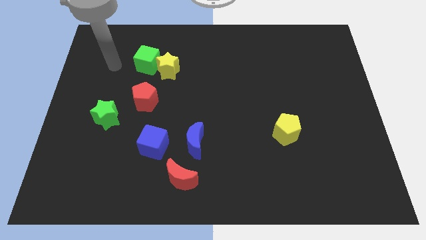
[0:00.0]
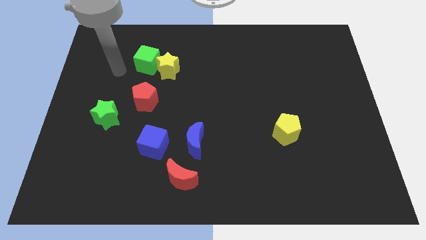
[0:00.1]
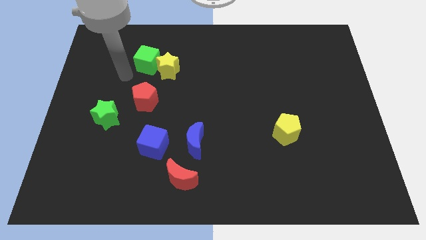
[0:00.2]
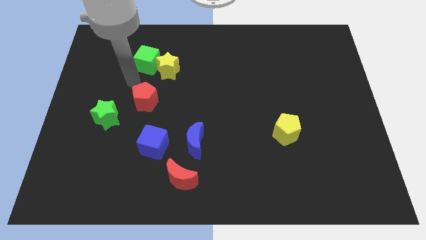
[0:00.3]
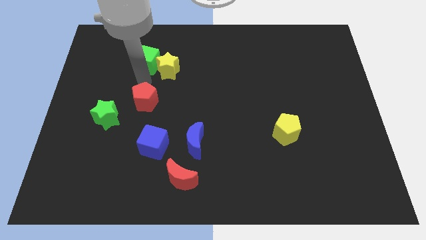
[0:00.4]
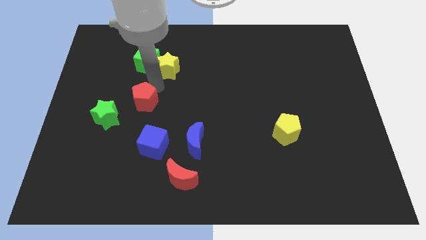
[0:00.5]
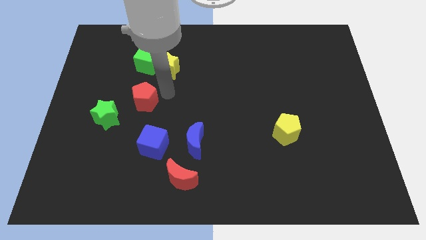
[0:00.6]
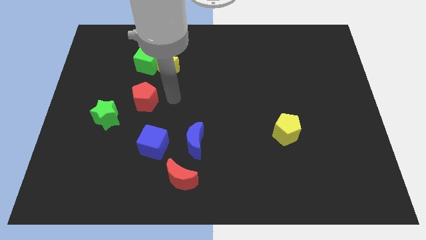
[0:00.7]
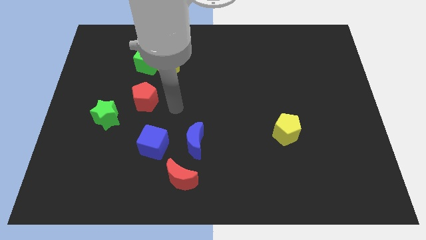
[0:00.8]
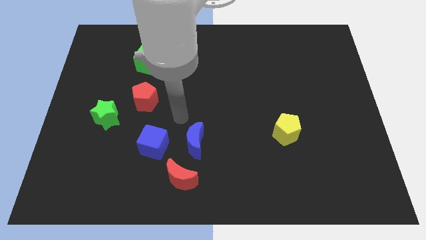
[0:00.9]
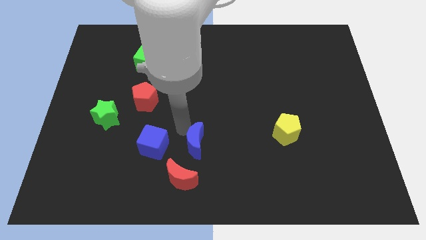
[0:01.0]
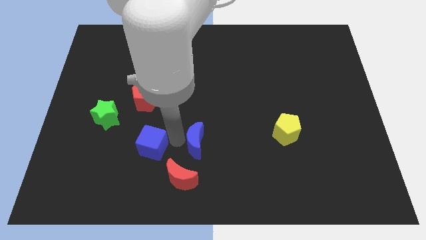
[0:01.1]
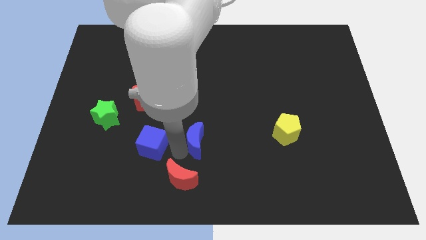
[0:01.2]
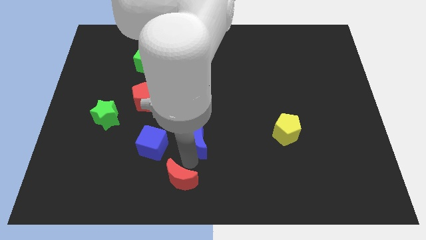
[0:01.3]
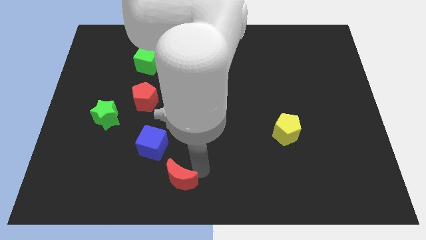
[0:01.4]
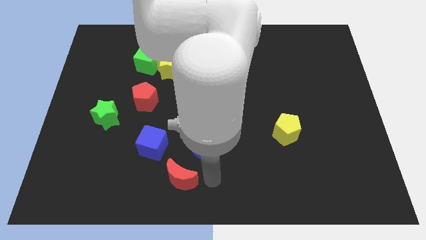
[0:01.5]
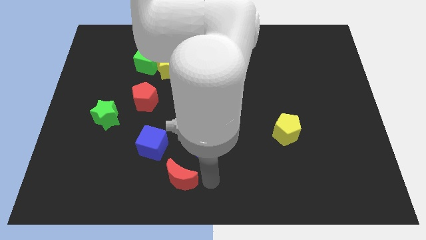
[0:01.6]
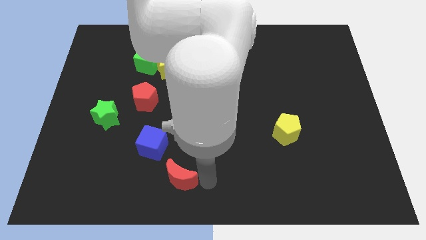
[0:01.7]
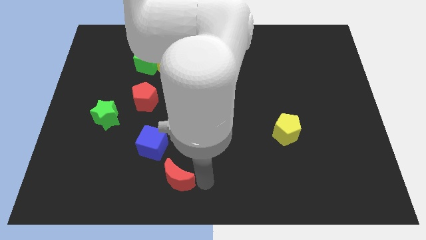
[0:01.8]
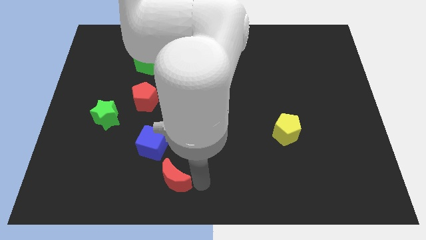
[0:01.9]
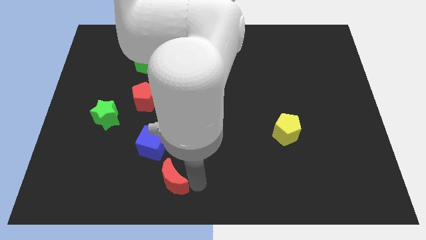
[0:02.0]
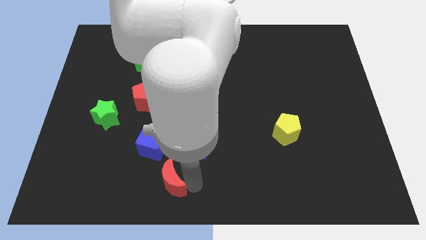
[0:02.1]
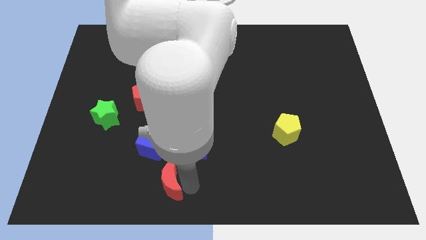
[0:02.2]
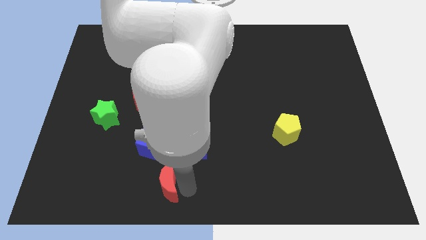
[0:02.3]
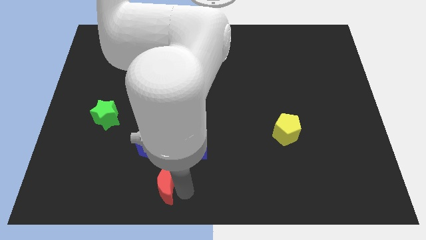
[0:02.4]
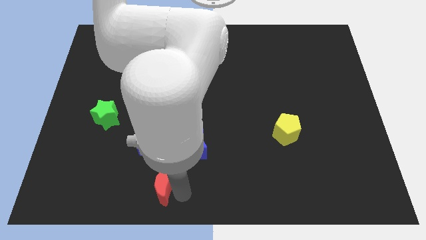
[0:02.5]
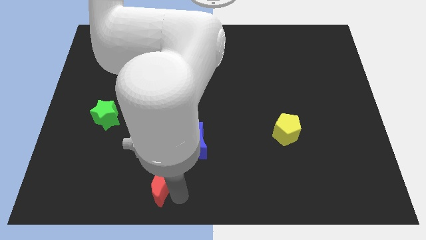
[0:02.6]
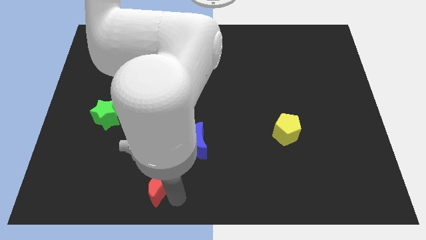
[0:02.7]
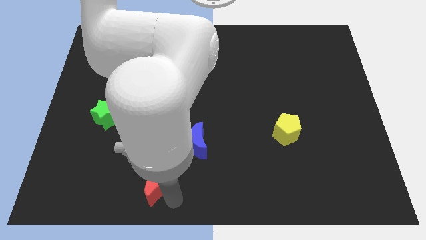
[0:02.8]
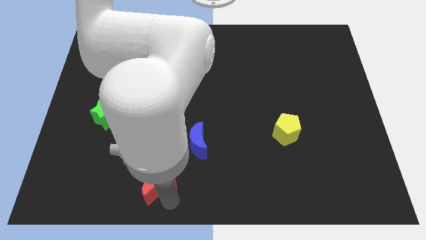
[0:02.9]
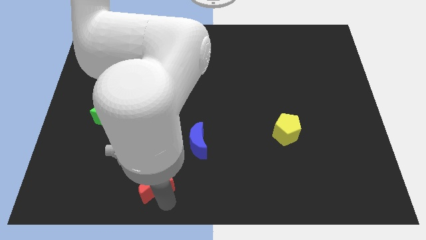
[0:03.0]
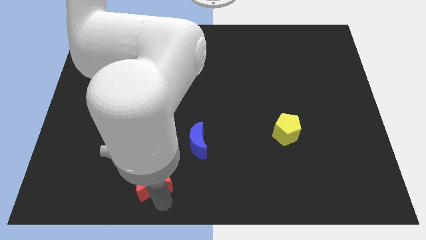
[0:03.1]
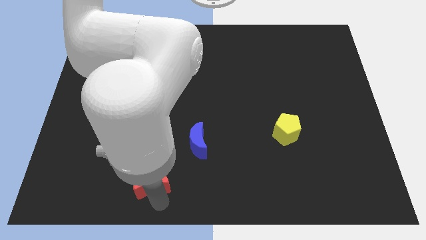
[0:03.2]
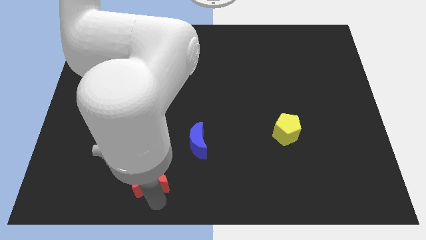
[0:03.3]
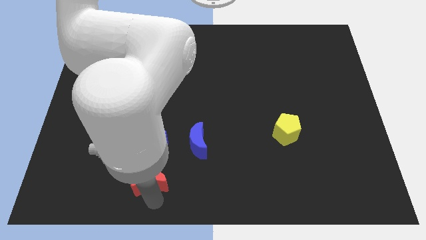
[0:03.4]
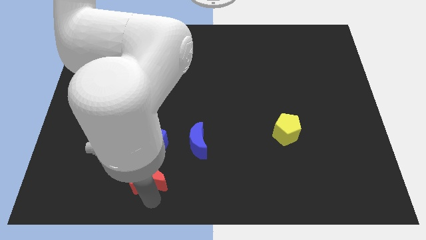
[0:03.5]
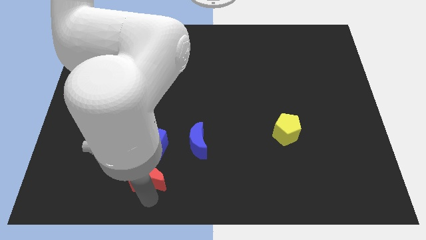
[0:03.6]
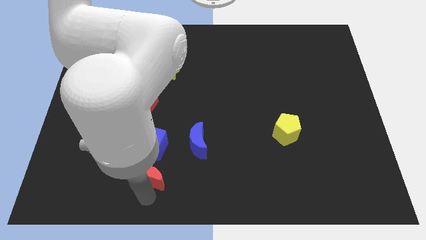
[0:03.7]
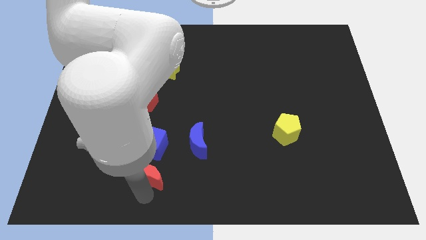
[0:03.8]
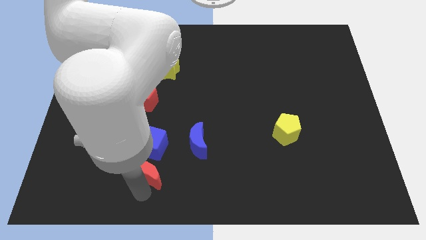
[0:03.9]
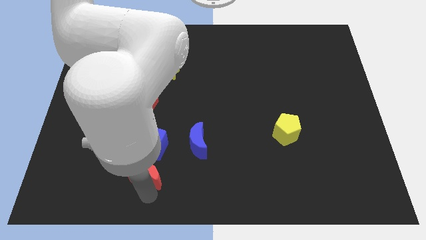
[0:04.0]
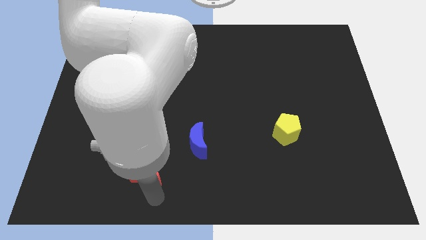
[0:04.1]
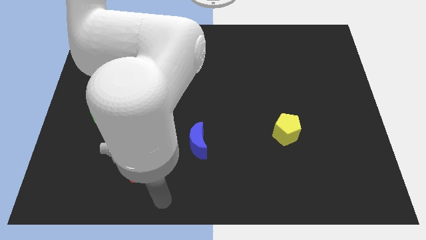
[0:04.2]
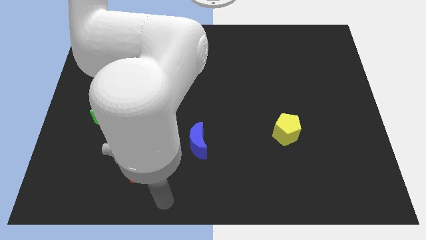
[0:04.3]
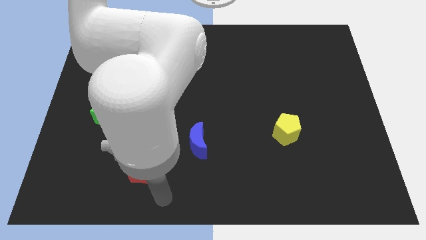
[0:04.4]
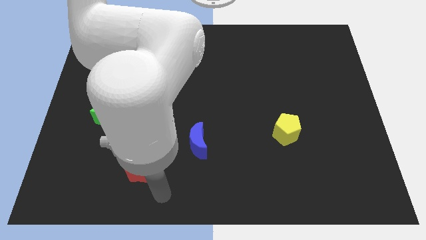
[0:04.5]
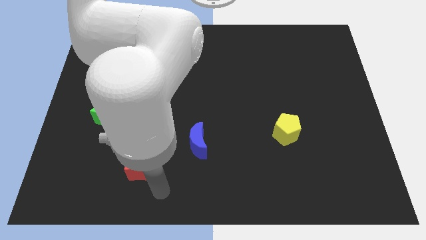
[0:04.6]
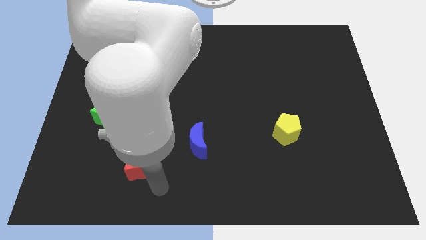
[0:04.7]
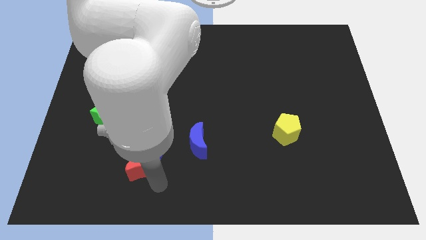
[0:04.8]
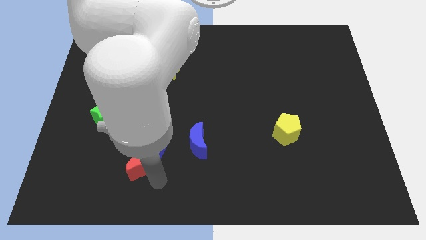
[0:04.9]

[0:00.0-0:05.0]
move the red moon a little upwards and then left

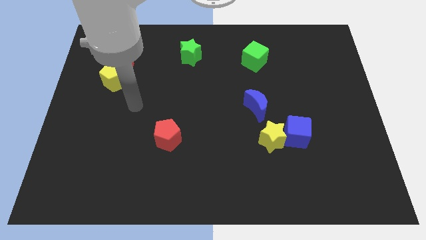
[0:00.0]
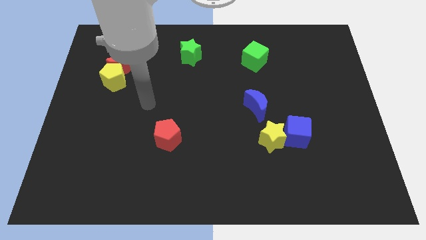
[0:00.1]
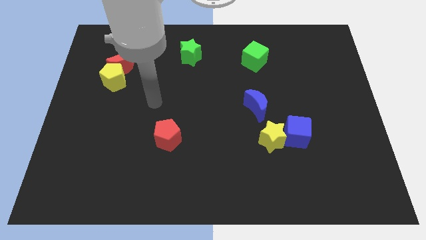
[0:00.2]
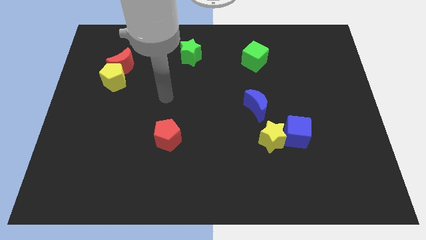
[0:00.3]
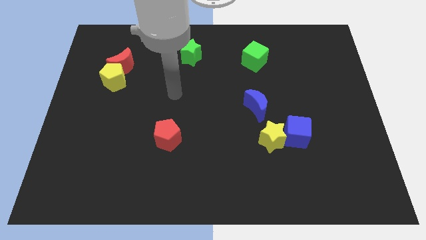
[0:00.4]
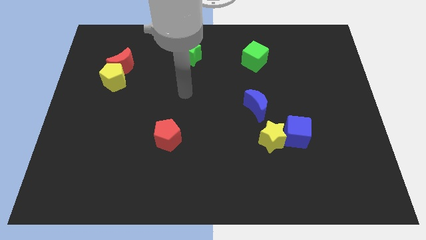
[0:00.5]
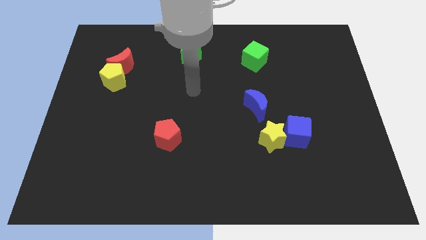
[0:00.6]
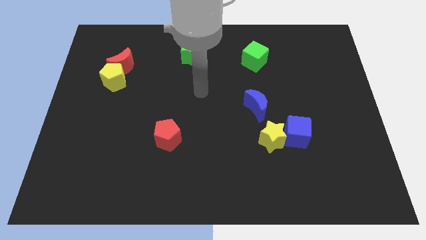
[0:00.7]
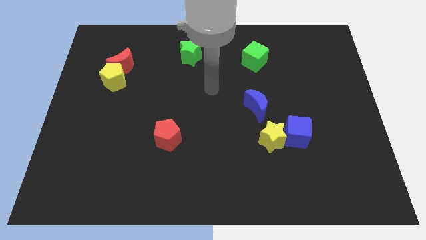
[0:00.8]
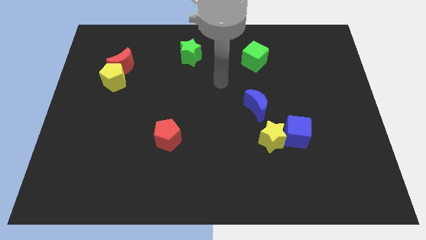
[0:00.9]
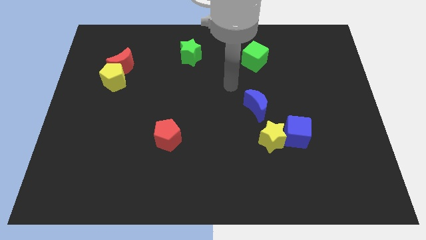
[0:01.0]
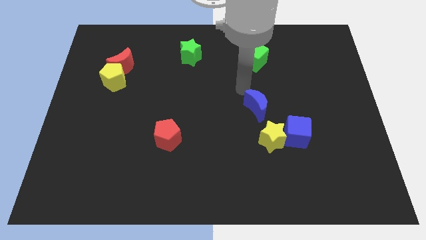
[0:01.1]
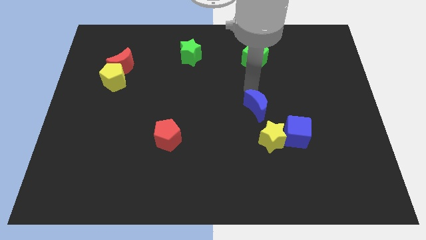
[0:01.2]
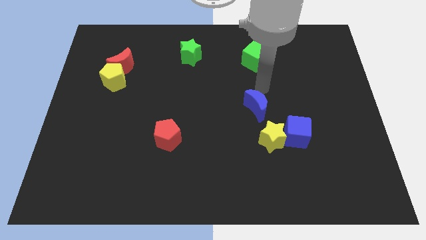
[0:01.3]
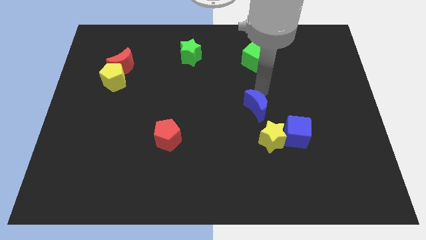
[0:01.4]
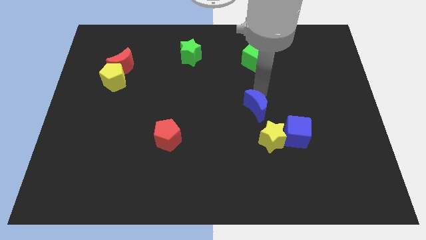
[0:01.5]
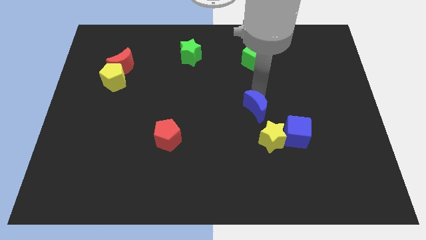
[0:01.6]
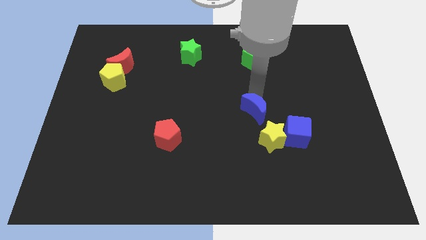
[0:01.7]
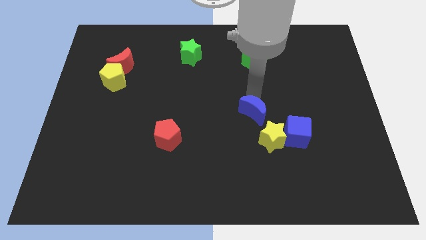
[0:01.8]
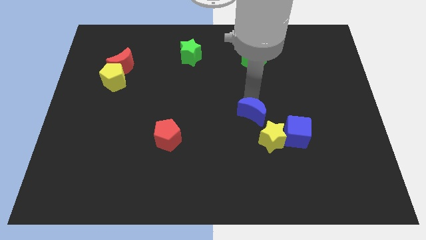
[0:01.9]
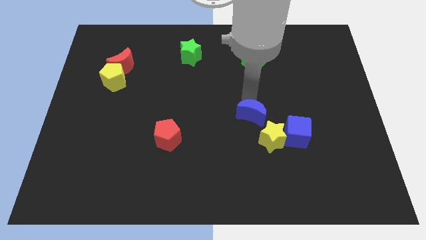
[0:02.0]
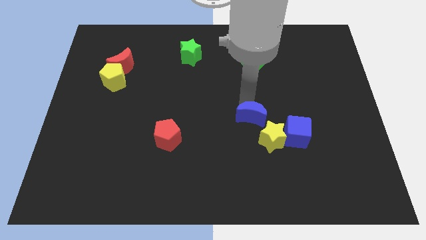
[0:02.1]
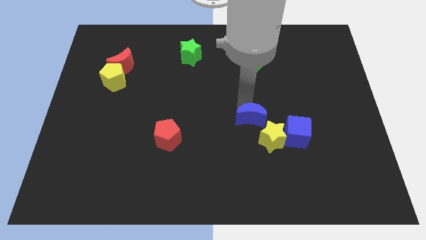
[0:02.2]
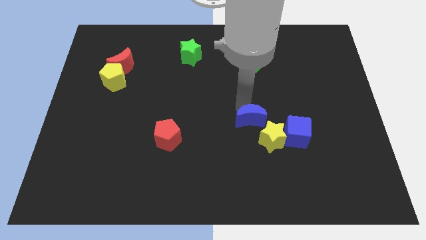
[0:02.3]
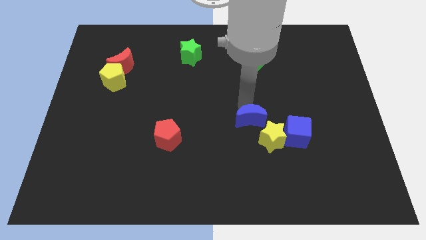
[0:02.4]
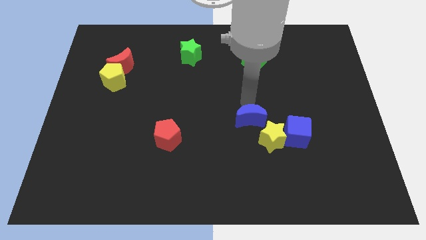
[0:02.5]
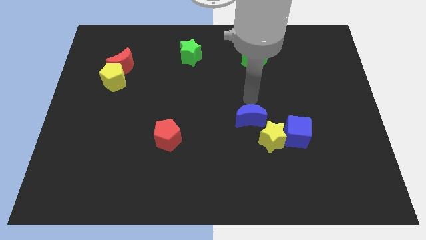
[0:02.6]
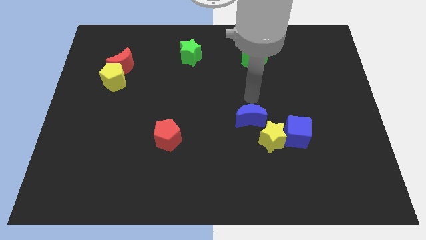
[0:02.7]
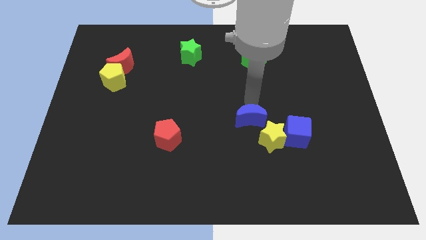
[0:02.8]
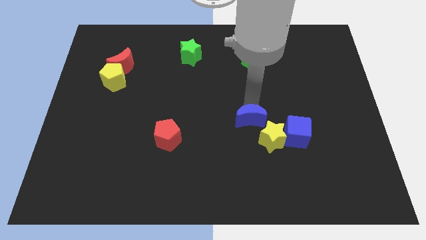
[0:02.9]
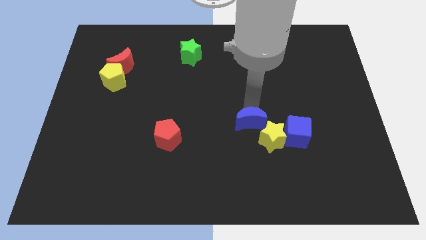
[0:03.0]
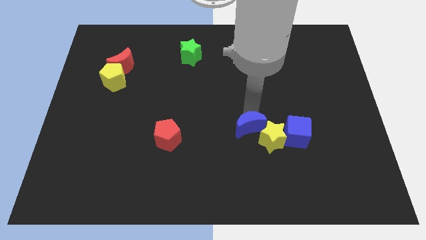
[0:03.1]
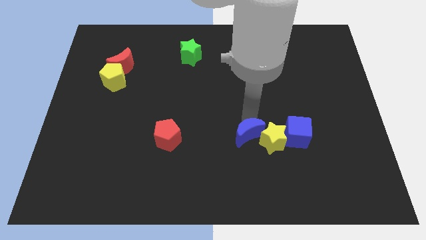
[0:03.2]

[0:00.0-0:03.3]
push the blue moon downwards somewhat

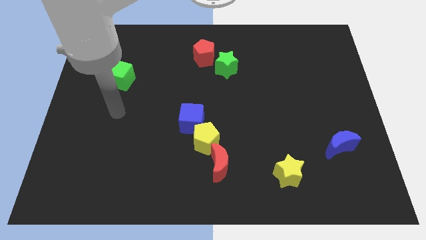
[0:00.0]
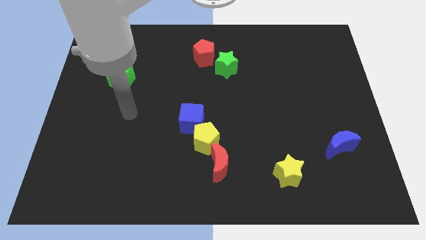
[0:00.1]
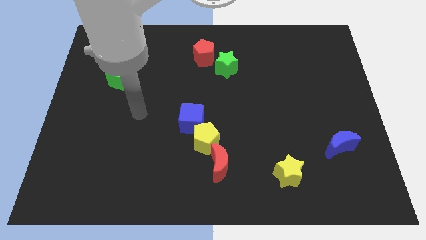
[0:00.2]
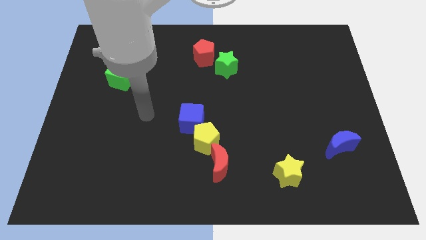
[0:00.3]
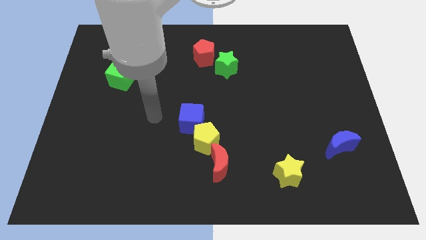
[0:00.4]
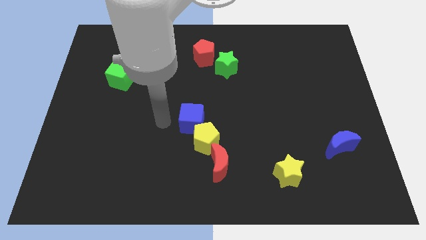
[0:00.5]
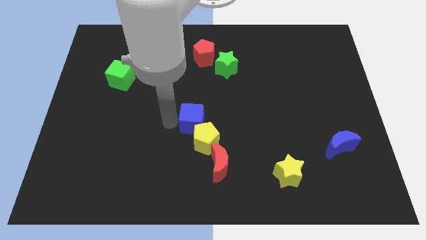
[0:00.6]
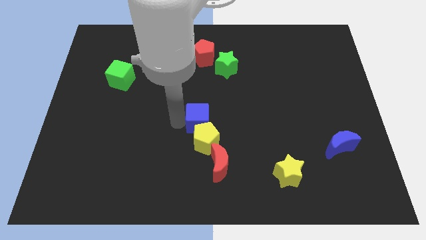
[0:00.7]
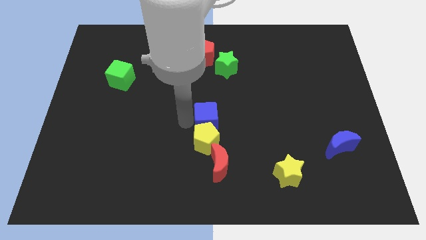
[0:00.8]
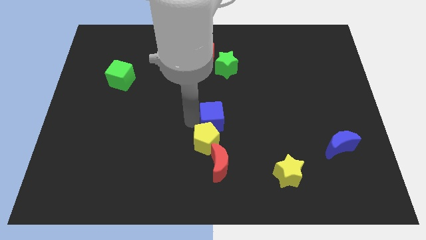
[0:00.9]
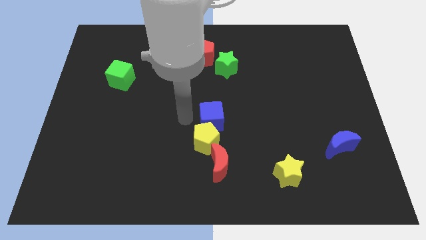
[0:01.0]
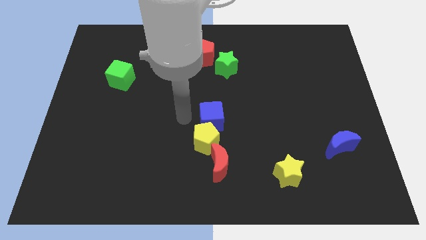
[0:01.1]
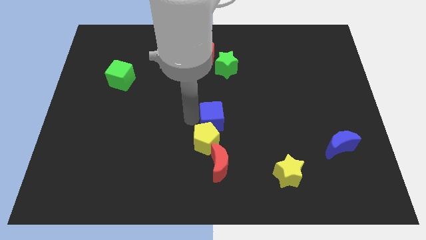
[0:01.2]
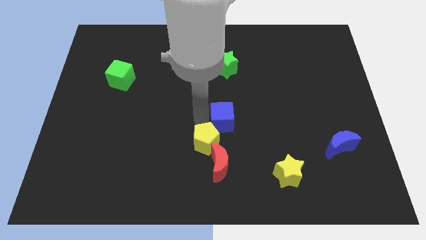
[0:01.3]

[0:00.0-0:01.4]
push the blue cube a bit right
